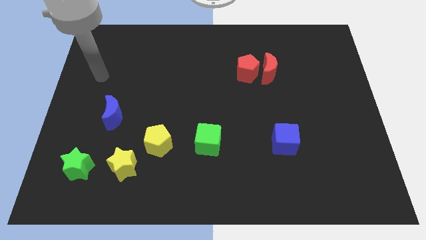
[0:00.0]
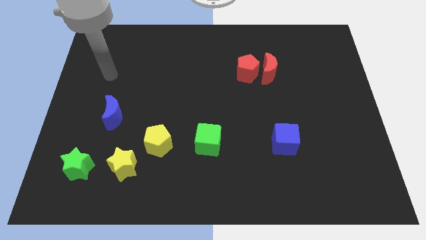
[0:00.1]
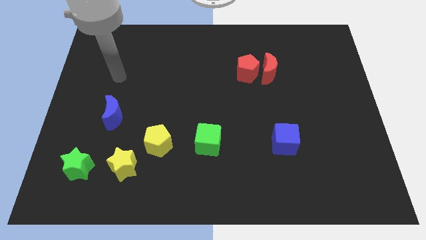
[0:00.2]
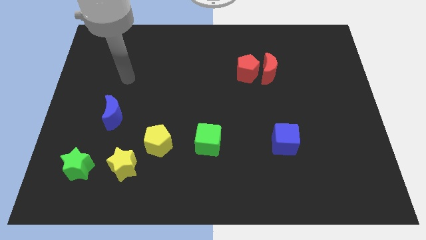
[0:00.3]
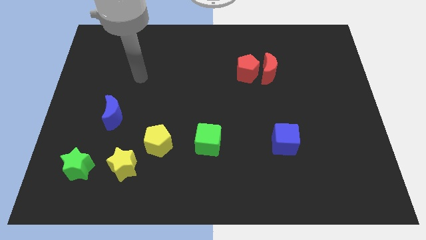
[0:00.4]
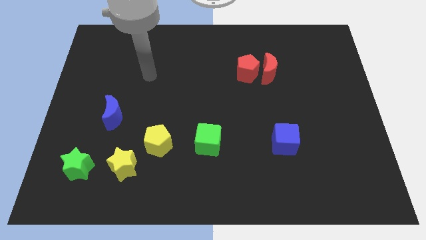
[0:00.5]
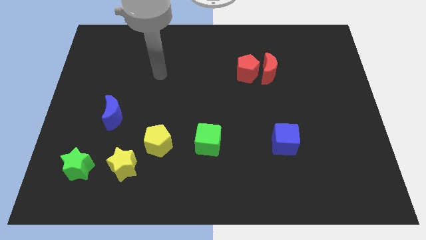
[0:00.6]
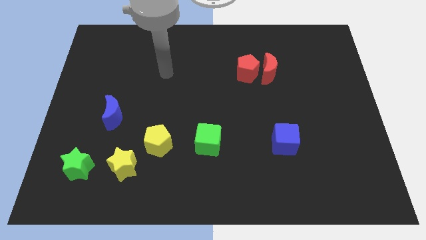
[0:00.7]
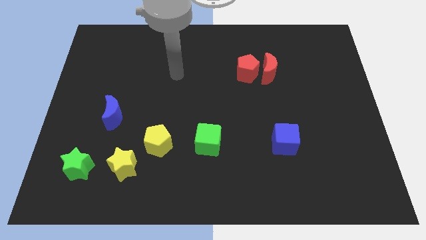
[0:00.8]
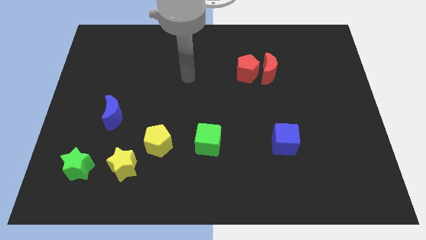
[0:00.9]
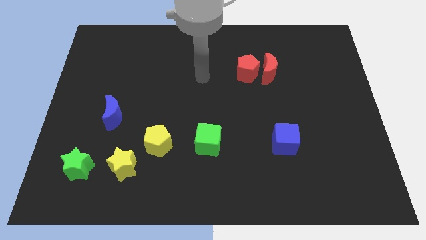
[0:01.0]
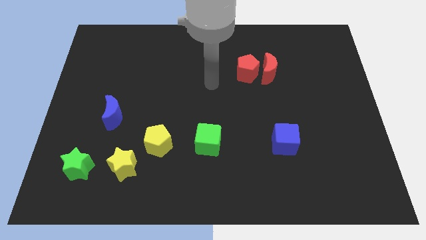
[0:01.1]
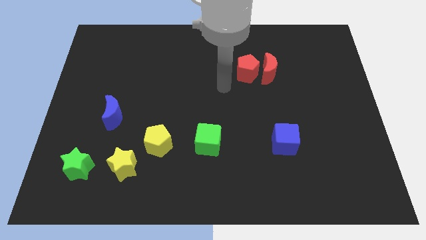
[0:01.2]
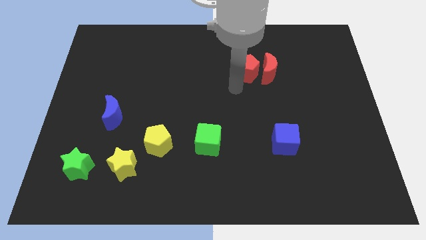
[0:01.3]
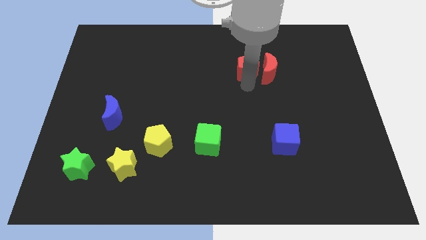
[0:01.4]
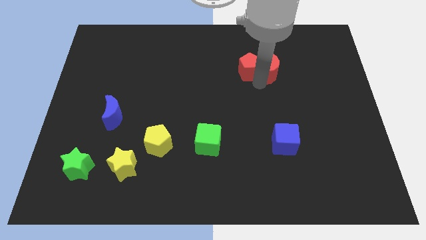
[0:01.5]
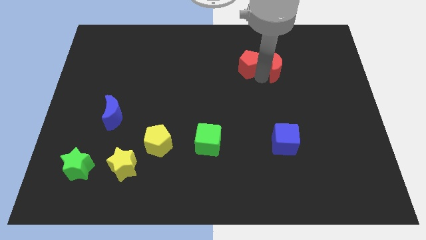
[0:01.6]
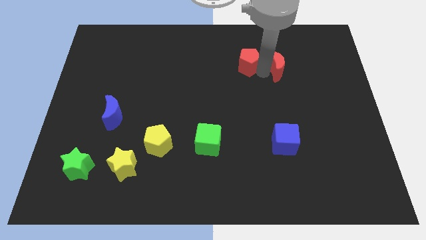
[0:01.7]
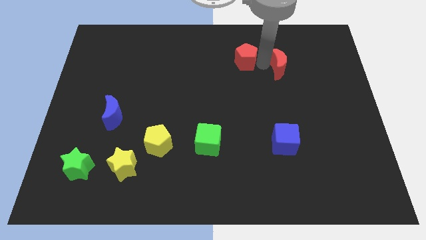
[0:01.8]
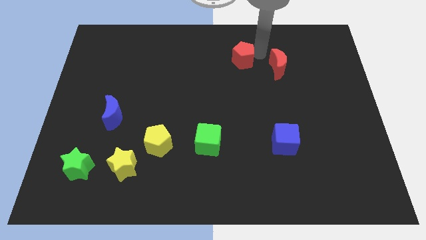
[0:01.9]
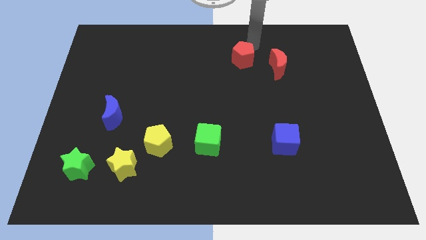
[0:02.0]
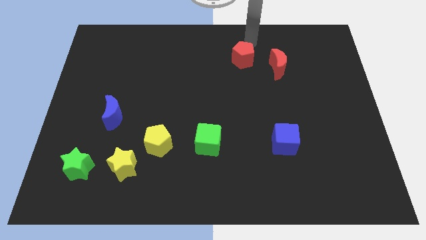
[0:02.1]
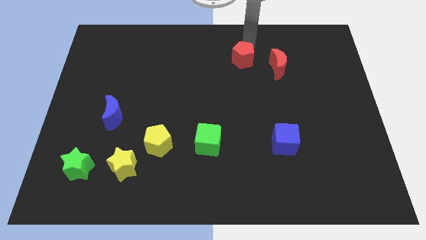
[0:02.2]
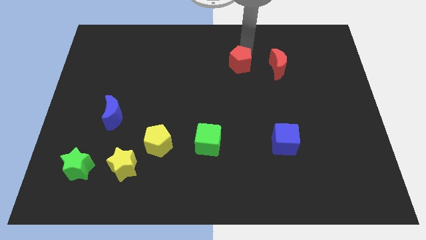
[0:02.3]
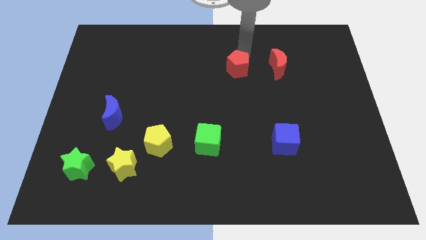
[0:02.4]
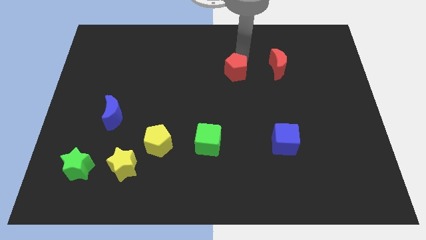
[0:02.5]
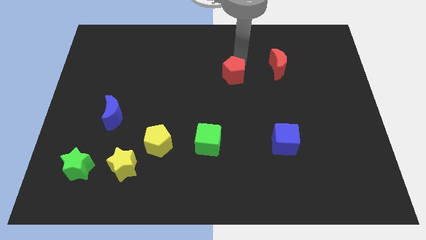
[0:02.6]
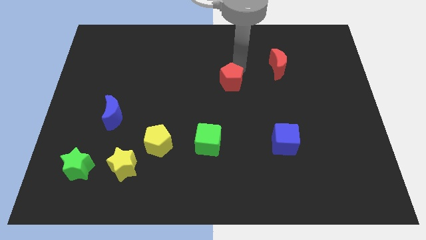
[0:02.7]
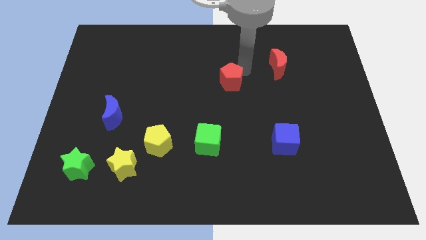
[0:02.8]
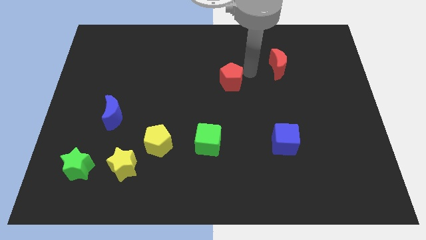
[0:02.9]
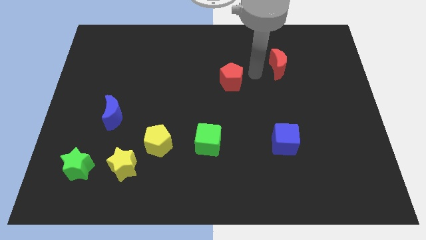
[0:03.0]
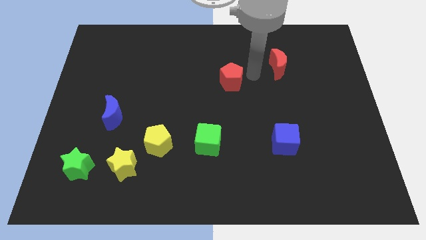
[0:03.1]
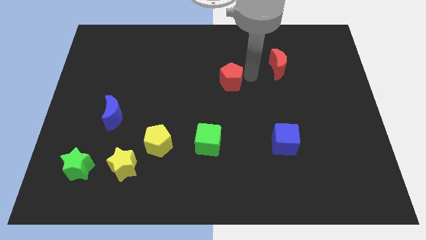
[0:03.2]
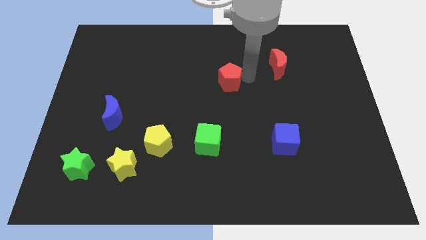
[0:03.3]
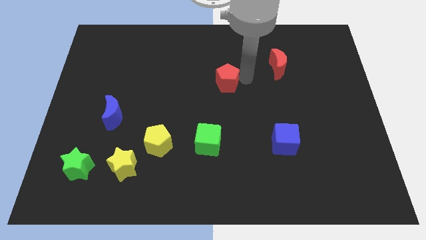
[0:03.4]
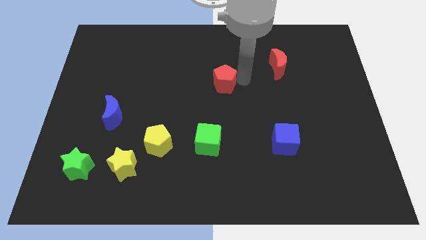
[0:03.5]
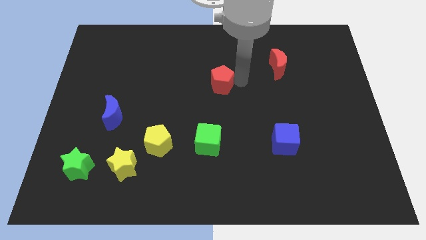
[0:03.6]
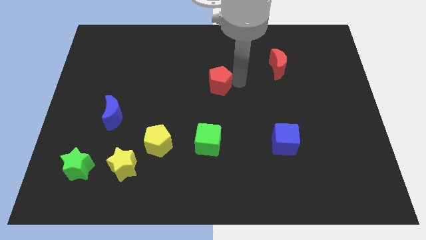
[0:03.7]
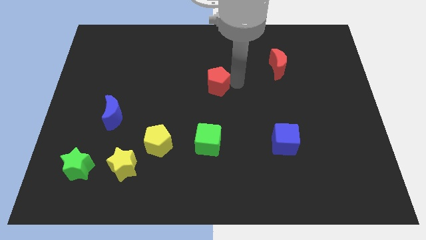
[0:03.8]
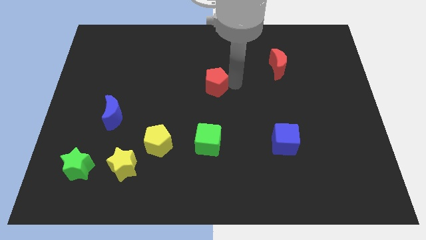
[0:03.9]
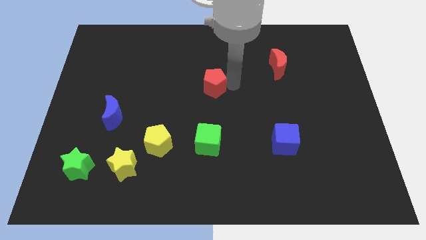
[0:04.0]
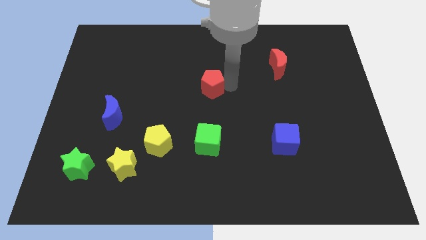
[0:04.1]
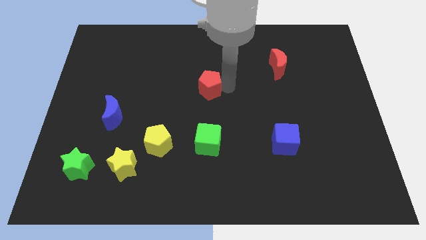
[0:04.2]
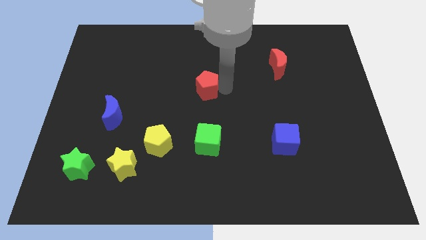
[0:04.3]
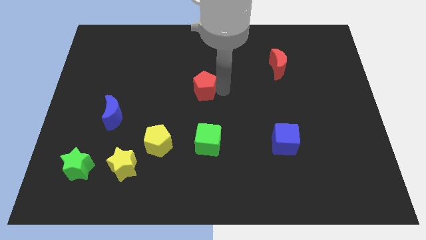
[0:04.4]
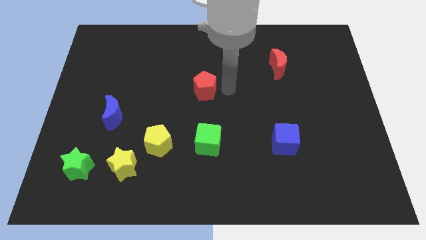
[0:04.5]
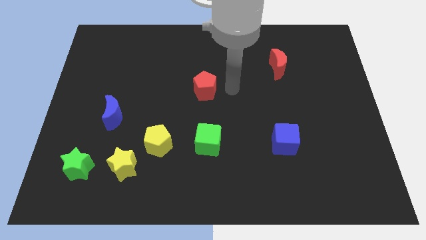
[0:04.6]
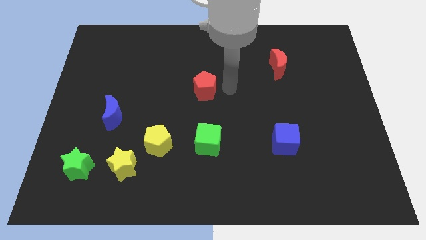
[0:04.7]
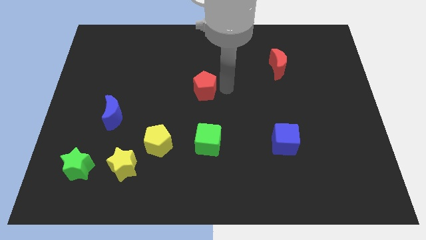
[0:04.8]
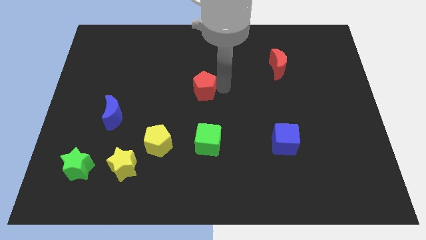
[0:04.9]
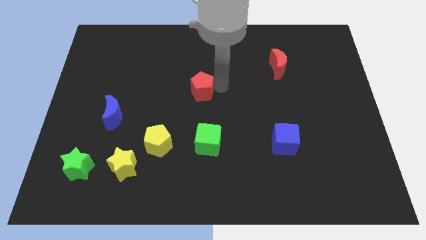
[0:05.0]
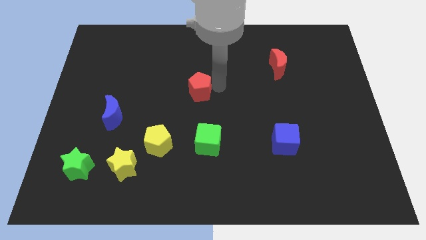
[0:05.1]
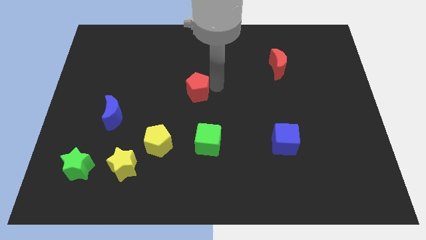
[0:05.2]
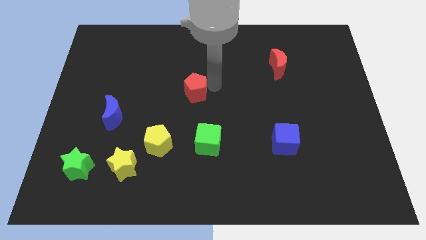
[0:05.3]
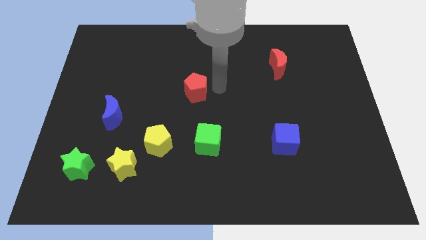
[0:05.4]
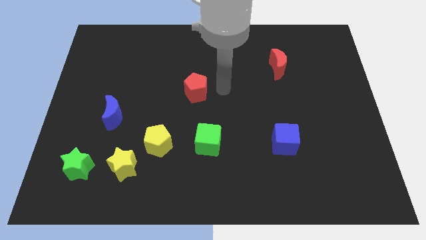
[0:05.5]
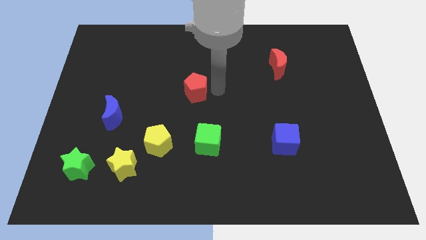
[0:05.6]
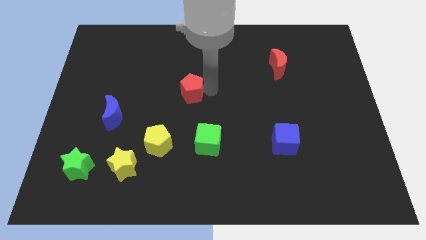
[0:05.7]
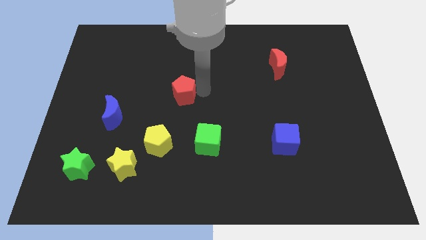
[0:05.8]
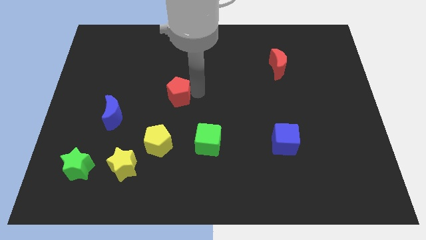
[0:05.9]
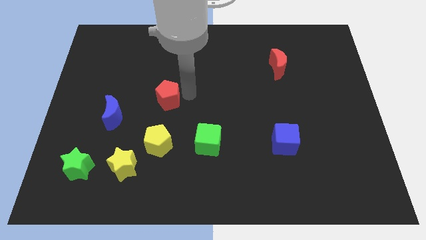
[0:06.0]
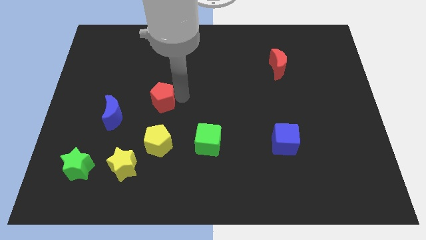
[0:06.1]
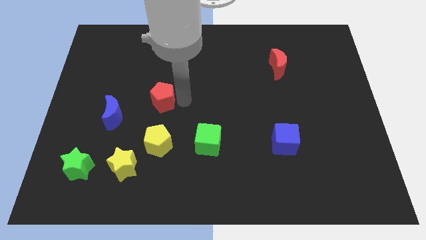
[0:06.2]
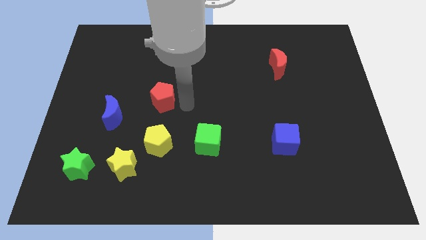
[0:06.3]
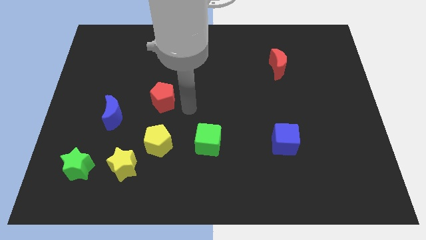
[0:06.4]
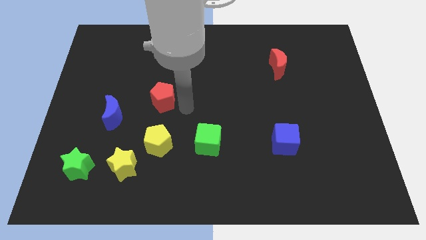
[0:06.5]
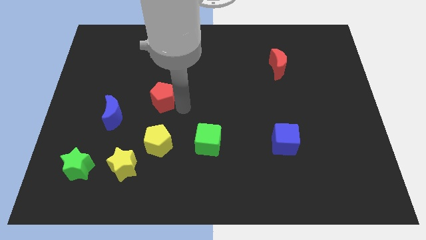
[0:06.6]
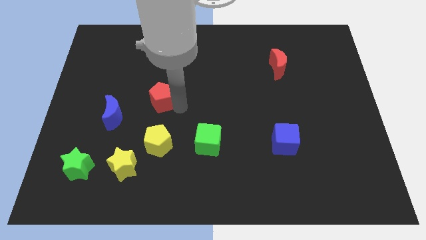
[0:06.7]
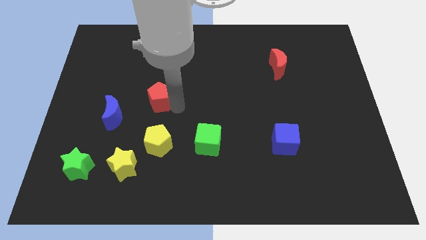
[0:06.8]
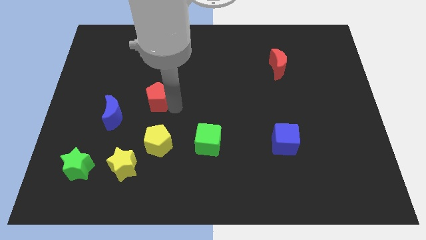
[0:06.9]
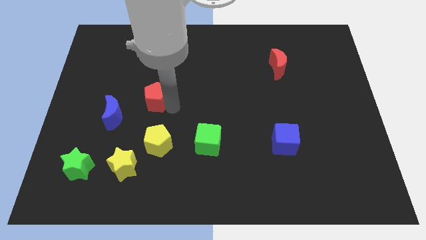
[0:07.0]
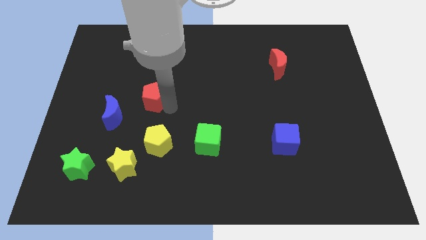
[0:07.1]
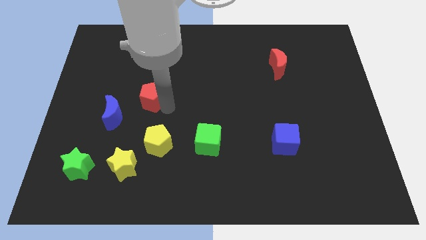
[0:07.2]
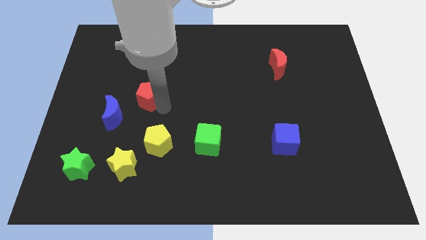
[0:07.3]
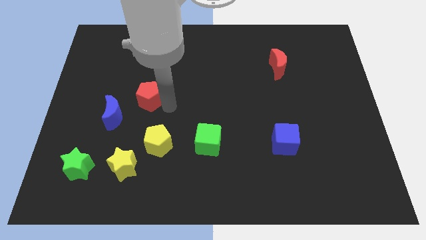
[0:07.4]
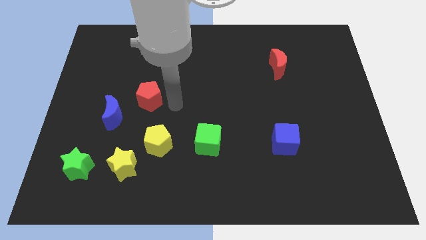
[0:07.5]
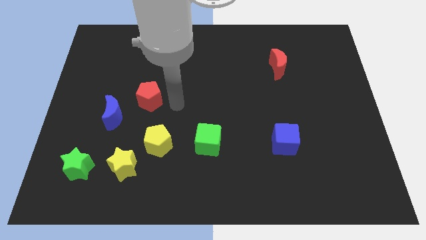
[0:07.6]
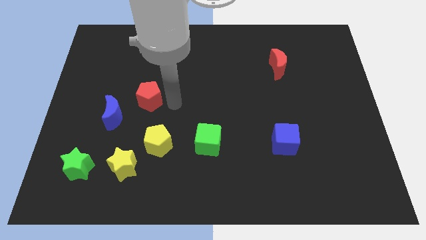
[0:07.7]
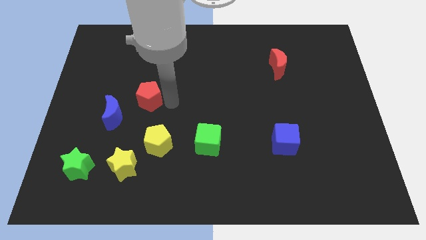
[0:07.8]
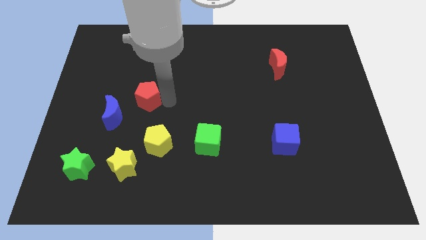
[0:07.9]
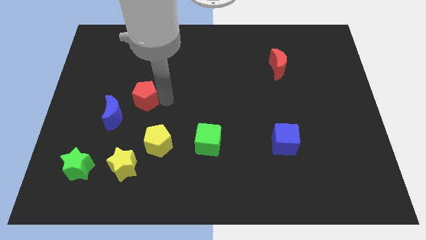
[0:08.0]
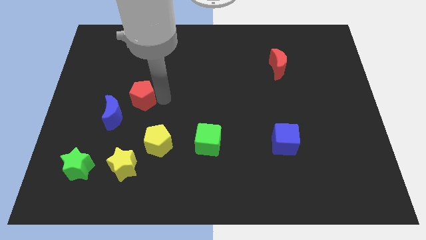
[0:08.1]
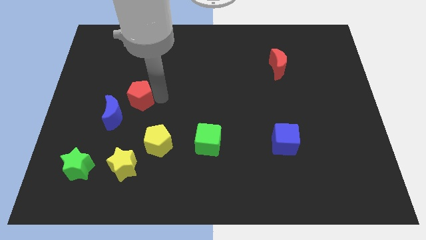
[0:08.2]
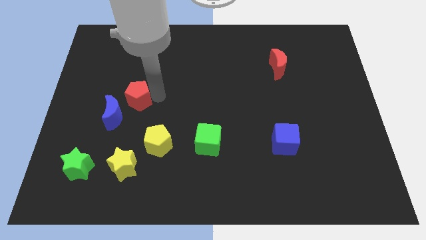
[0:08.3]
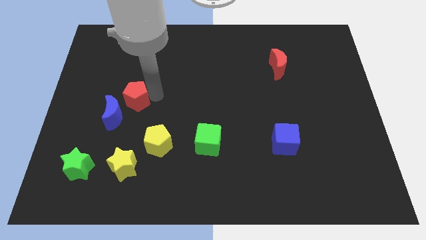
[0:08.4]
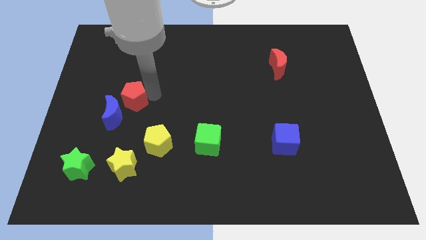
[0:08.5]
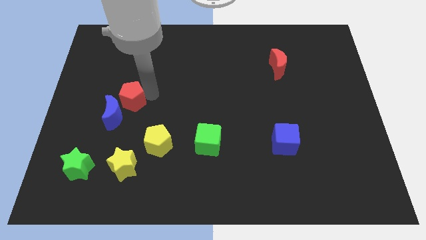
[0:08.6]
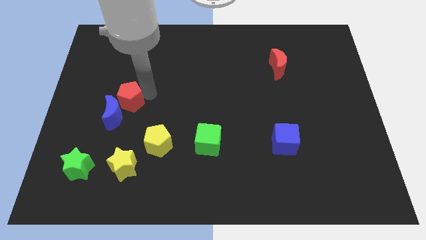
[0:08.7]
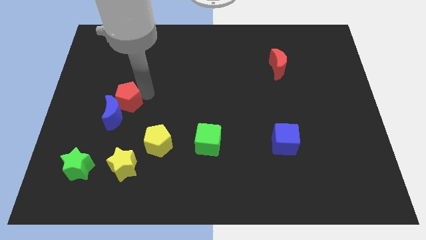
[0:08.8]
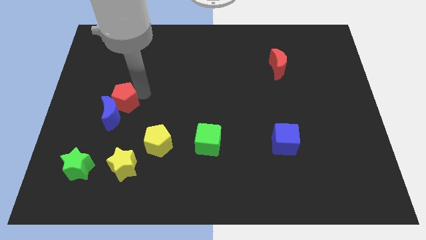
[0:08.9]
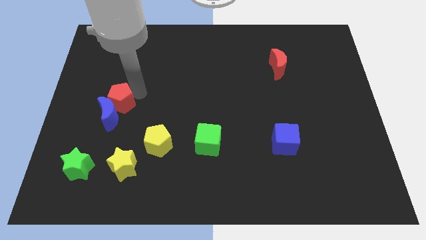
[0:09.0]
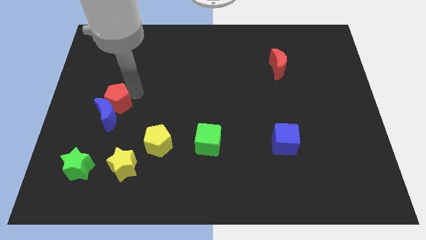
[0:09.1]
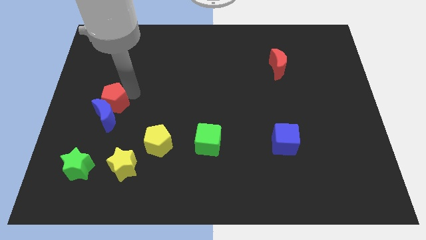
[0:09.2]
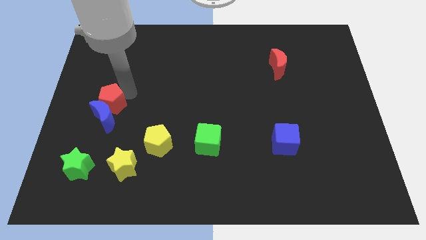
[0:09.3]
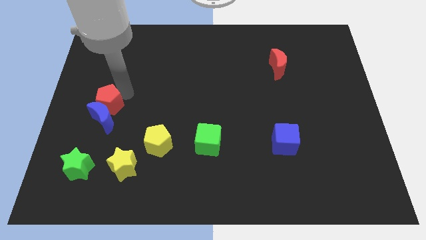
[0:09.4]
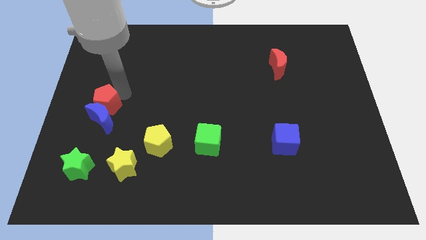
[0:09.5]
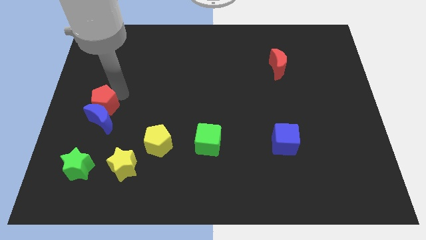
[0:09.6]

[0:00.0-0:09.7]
push the red pentagon to the left side
